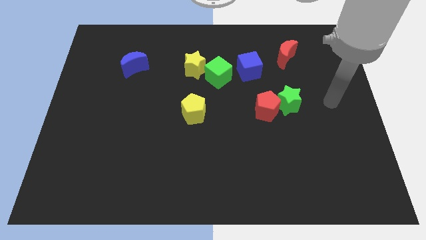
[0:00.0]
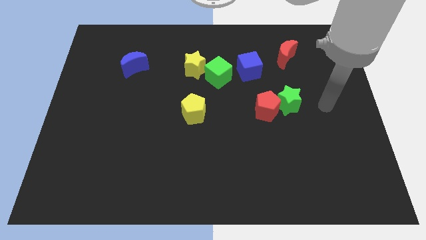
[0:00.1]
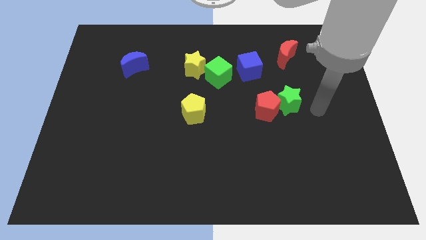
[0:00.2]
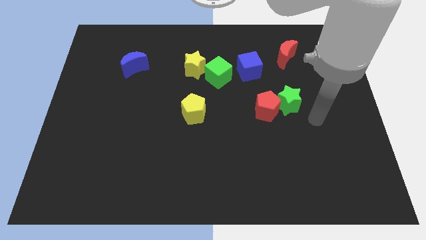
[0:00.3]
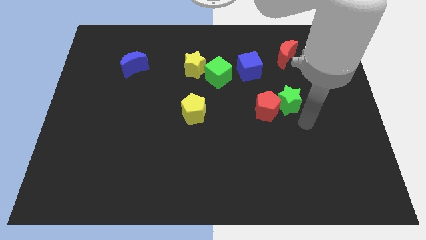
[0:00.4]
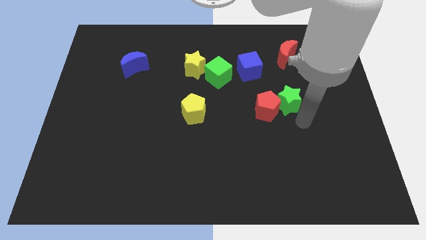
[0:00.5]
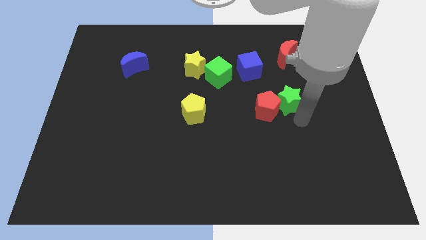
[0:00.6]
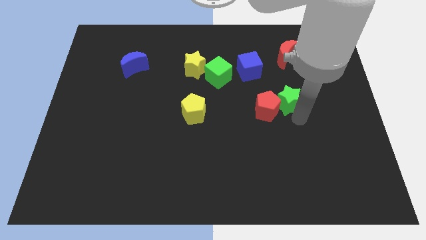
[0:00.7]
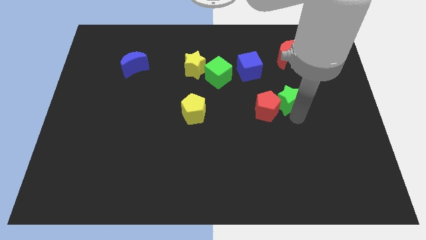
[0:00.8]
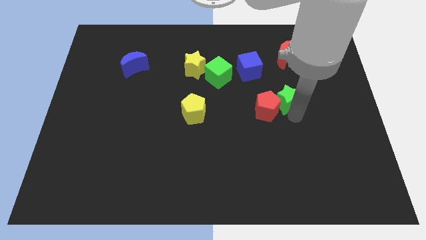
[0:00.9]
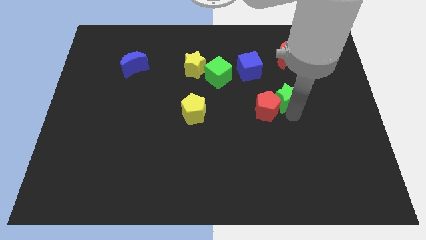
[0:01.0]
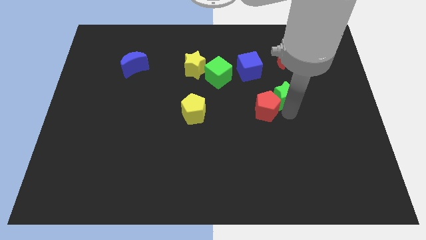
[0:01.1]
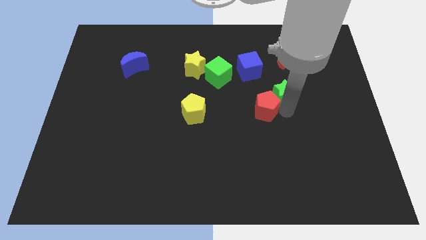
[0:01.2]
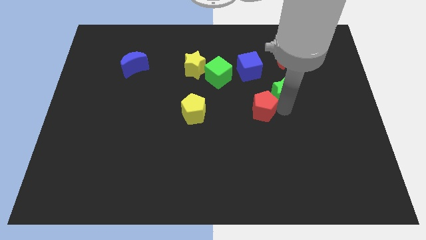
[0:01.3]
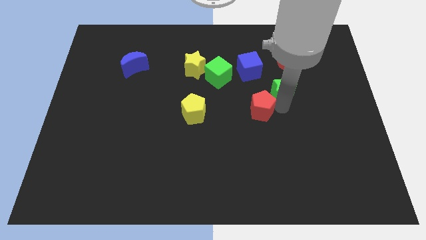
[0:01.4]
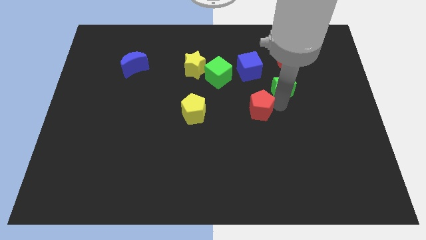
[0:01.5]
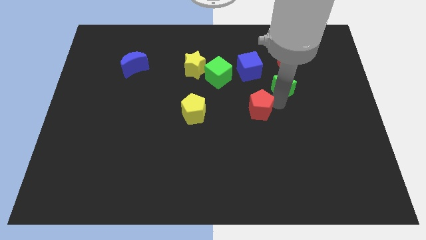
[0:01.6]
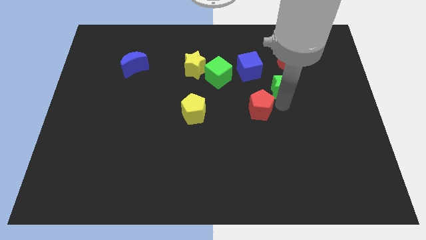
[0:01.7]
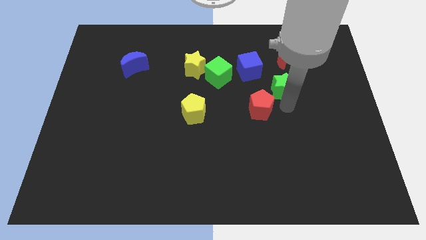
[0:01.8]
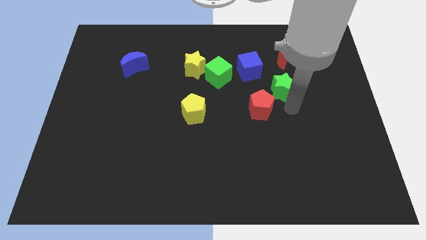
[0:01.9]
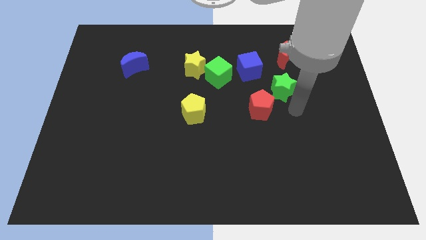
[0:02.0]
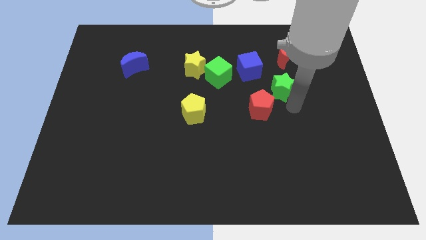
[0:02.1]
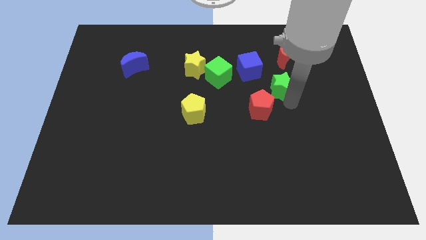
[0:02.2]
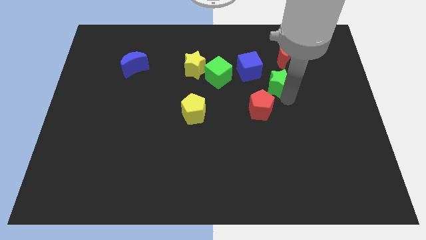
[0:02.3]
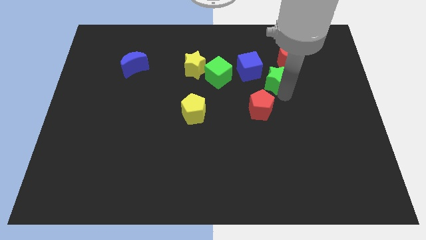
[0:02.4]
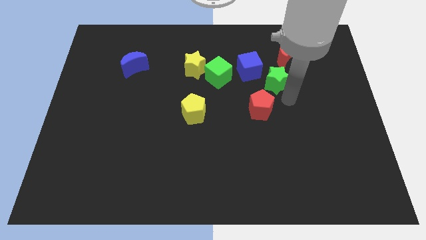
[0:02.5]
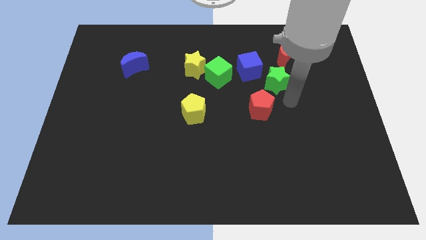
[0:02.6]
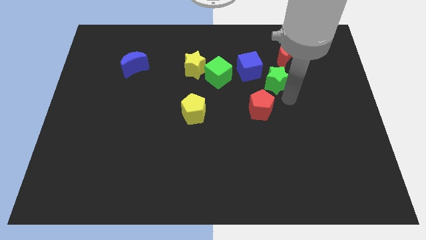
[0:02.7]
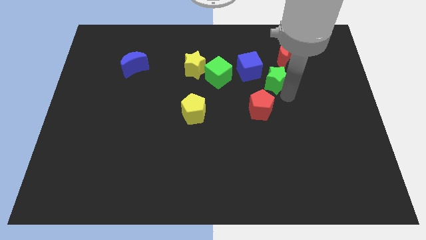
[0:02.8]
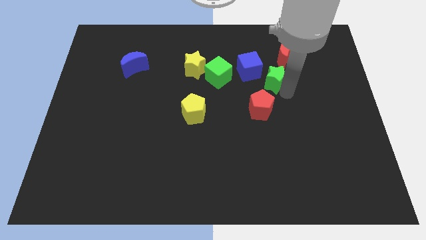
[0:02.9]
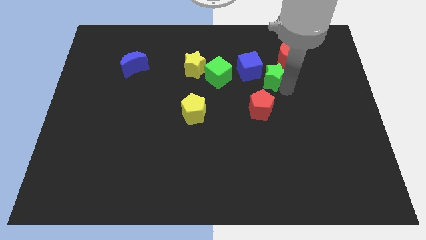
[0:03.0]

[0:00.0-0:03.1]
move the green star up and left slightly

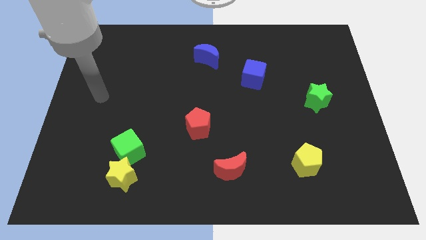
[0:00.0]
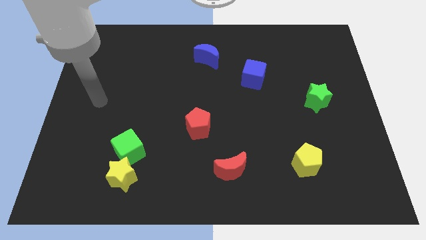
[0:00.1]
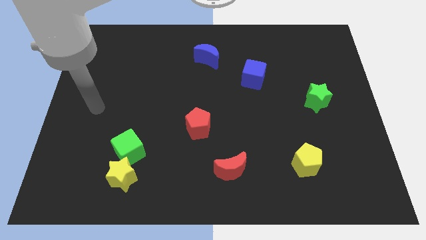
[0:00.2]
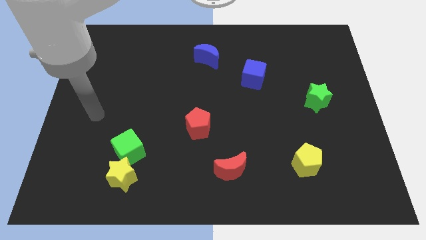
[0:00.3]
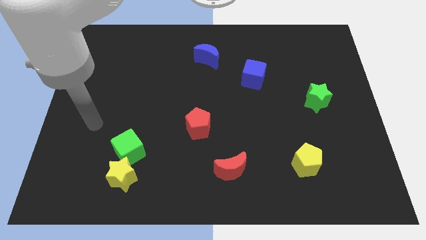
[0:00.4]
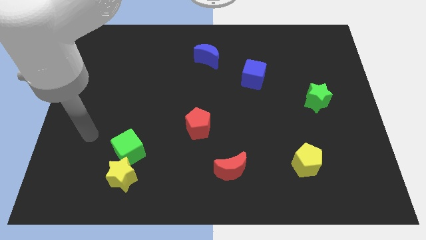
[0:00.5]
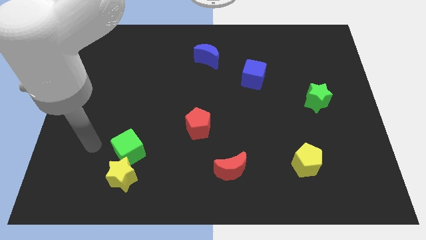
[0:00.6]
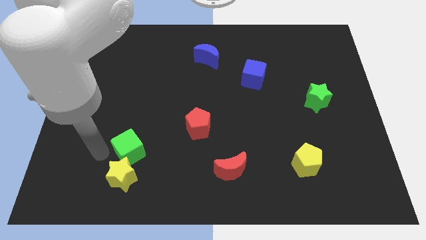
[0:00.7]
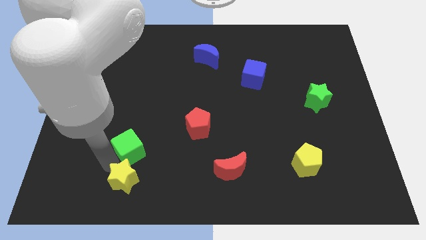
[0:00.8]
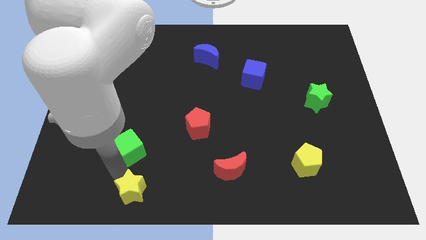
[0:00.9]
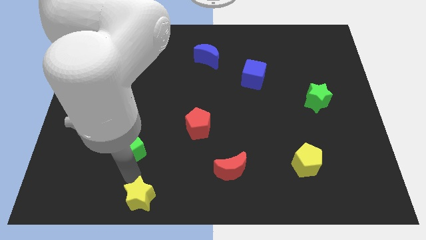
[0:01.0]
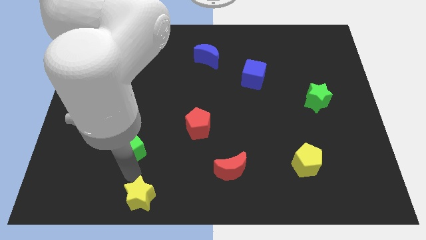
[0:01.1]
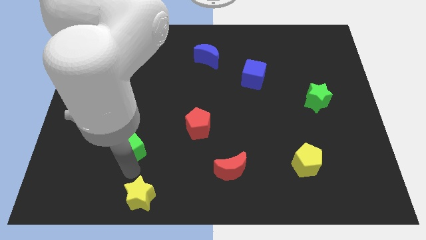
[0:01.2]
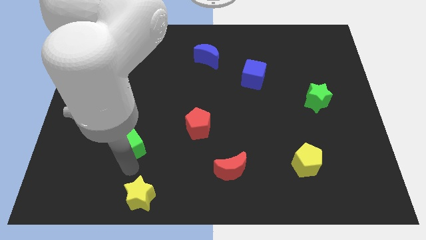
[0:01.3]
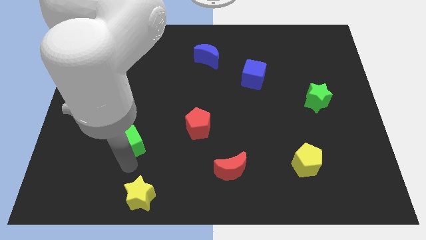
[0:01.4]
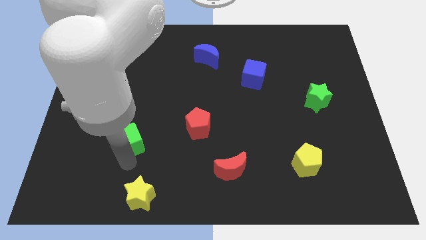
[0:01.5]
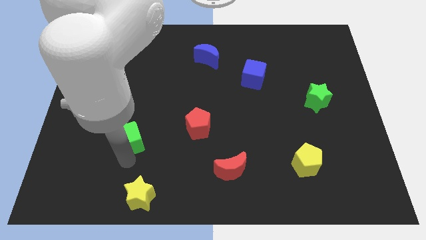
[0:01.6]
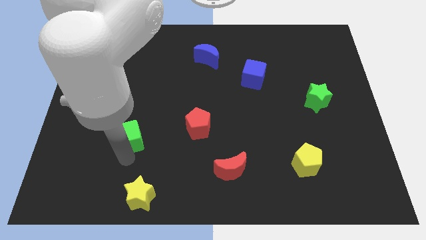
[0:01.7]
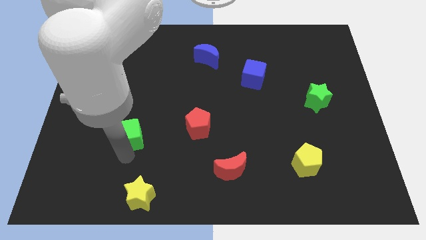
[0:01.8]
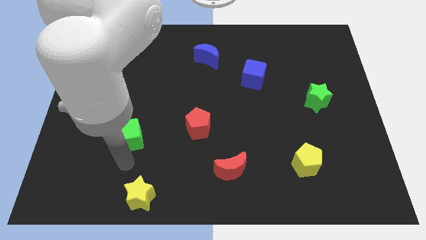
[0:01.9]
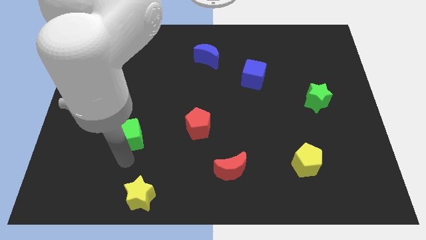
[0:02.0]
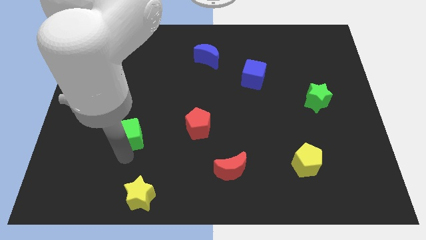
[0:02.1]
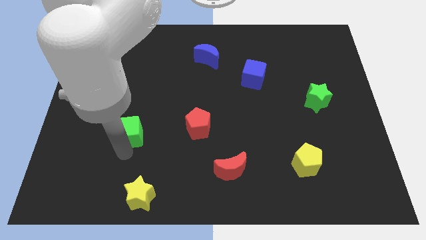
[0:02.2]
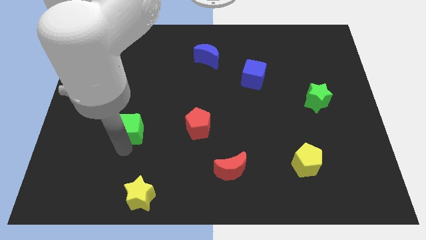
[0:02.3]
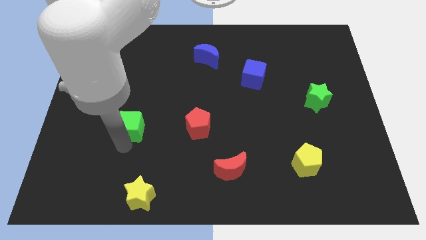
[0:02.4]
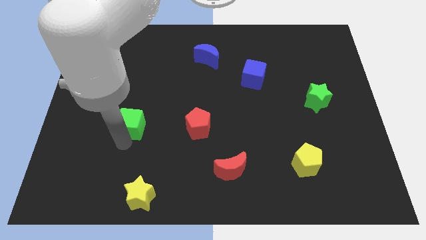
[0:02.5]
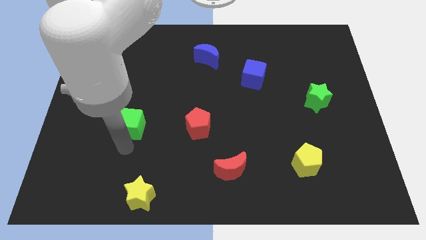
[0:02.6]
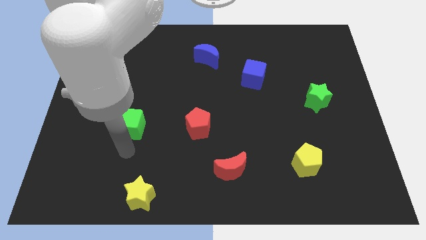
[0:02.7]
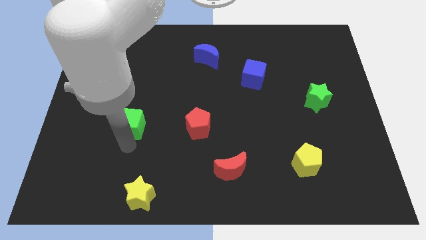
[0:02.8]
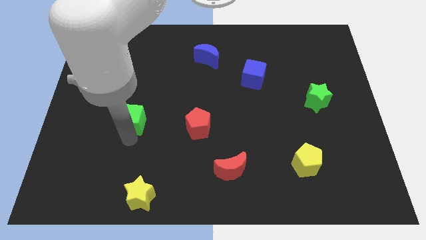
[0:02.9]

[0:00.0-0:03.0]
push the green cube a little bit up

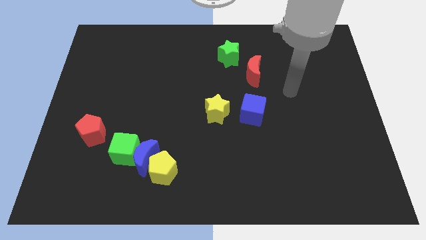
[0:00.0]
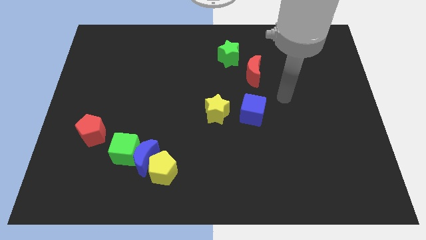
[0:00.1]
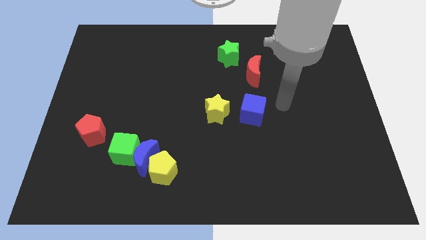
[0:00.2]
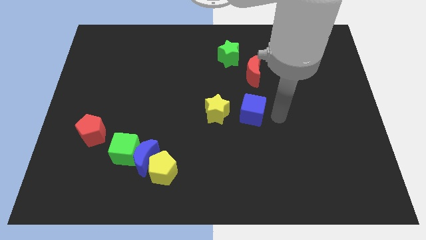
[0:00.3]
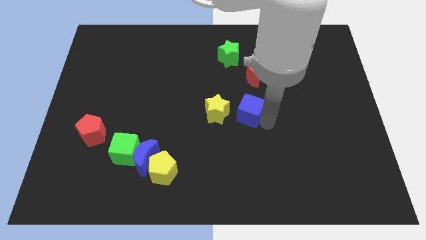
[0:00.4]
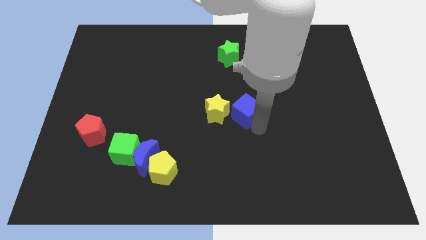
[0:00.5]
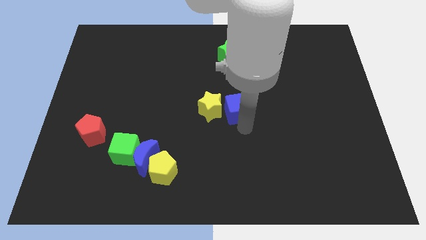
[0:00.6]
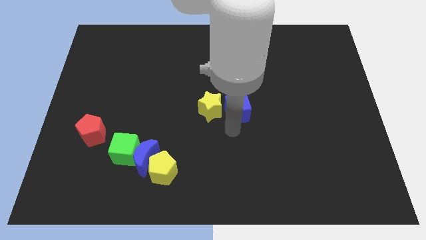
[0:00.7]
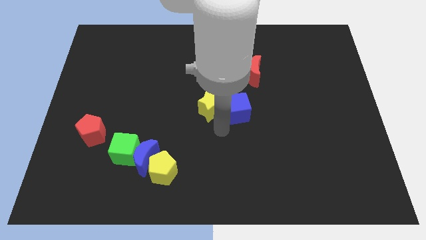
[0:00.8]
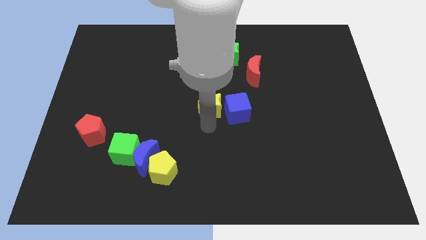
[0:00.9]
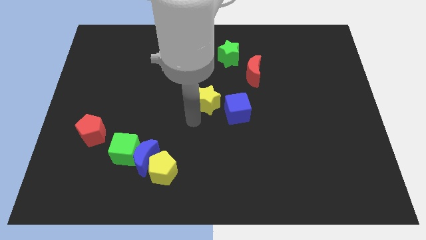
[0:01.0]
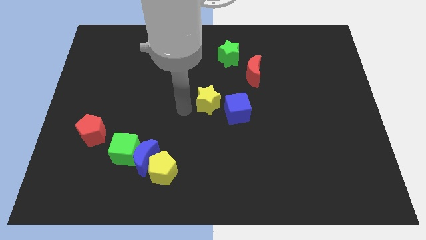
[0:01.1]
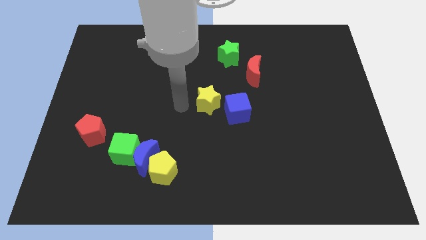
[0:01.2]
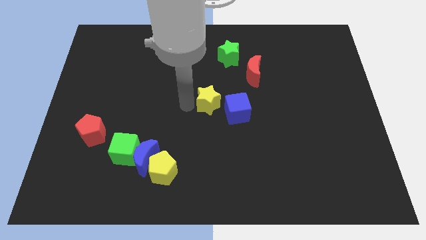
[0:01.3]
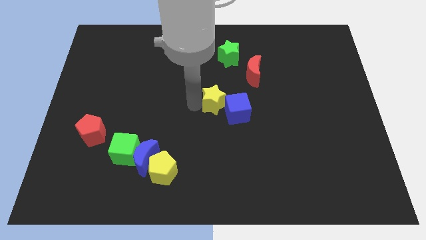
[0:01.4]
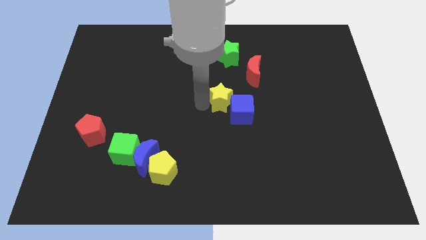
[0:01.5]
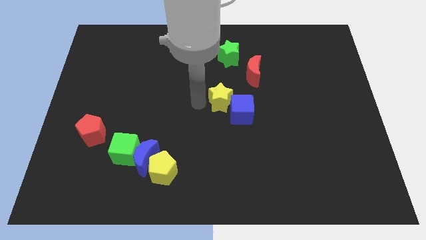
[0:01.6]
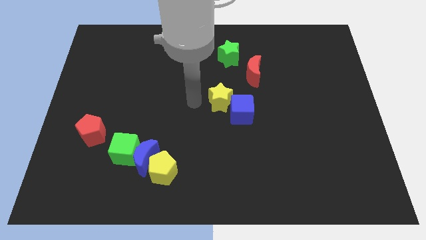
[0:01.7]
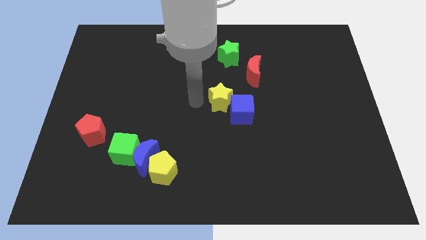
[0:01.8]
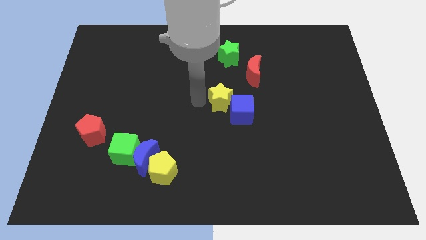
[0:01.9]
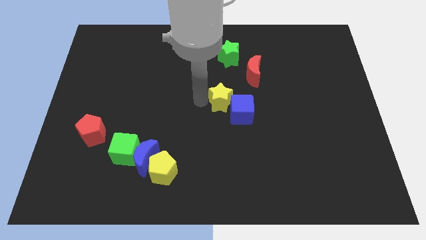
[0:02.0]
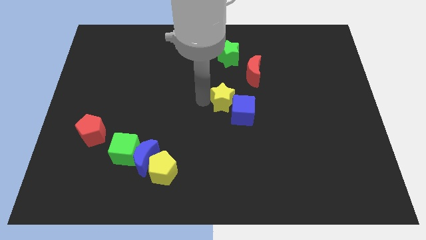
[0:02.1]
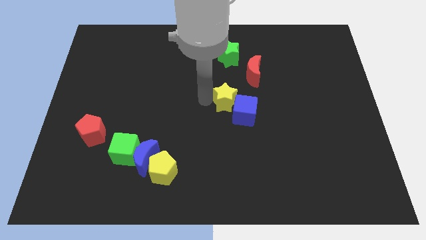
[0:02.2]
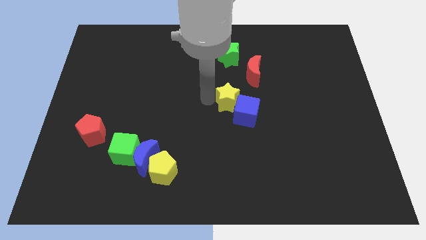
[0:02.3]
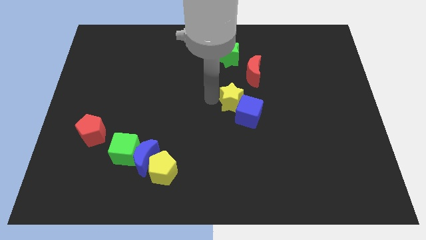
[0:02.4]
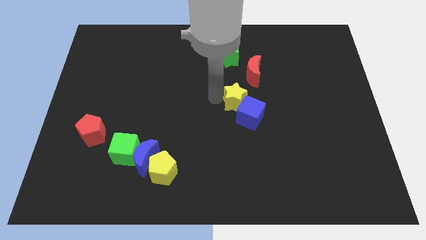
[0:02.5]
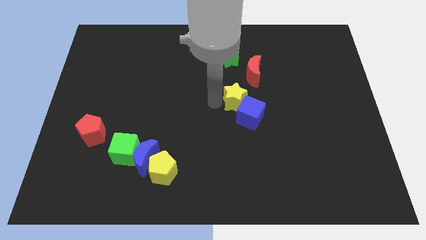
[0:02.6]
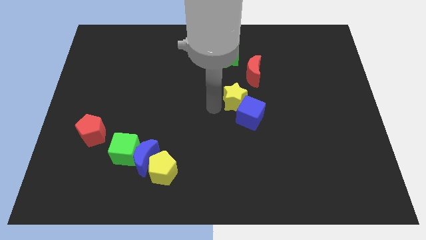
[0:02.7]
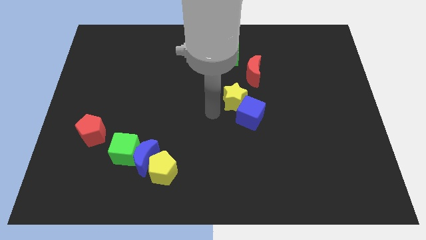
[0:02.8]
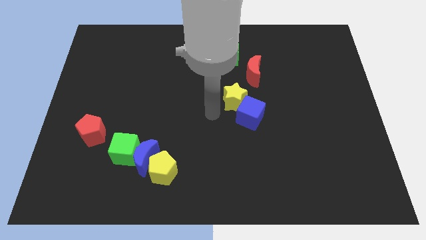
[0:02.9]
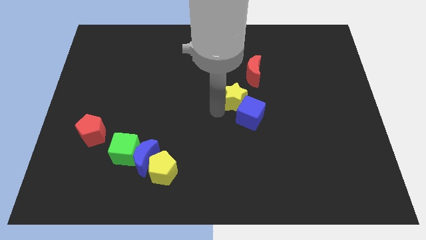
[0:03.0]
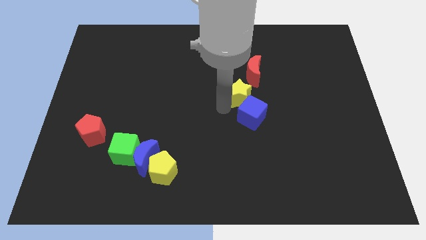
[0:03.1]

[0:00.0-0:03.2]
slightly push the yellow star upwards and to the right
